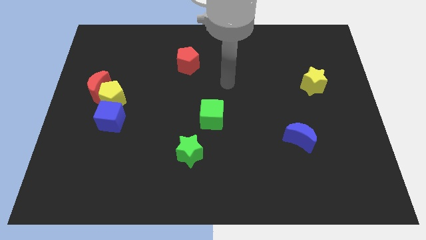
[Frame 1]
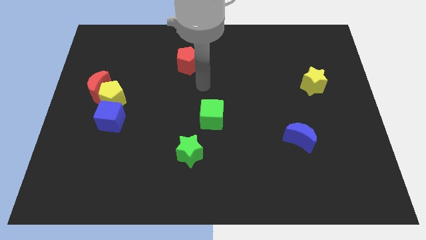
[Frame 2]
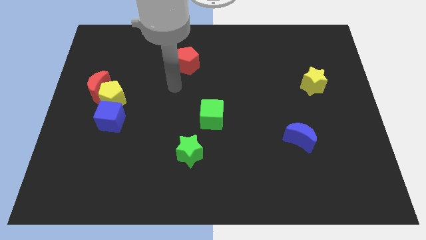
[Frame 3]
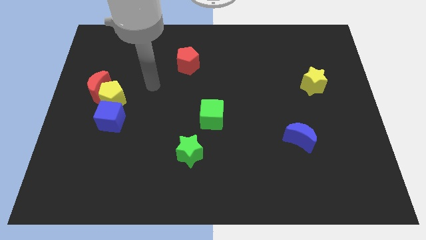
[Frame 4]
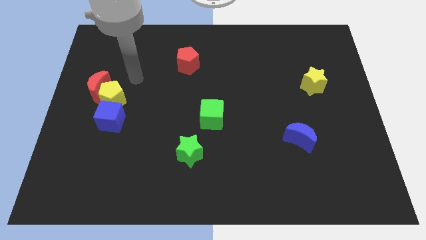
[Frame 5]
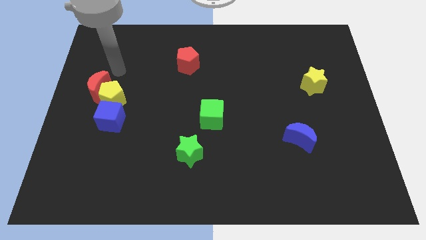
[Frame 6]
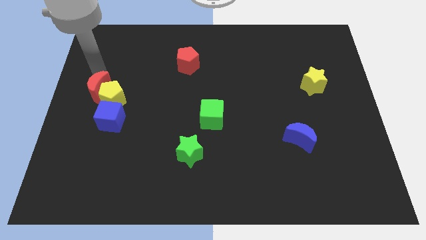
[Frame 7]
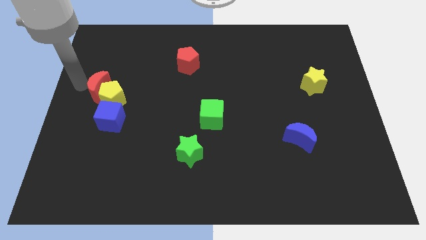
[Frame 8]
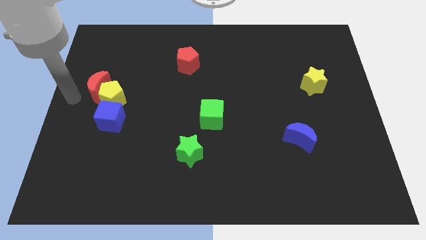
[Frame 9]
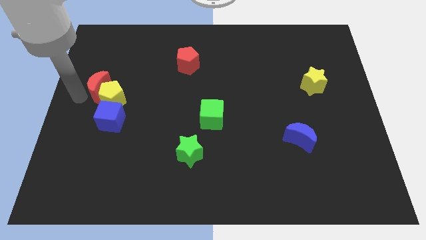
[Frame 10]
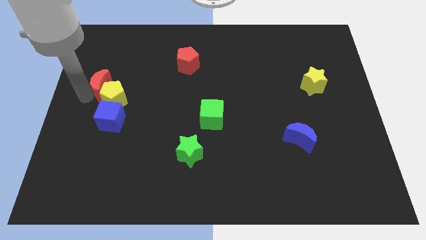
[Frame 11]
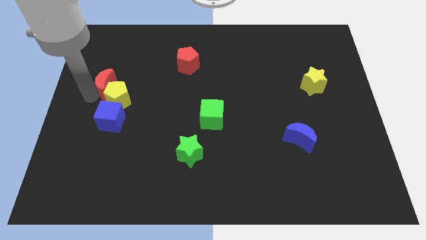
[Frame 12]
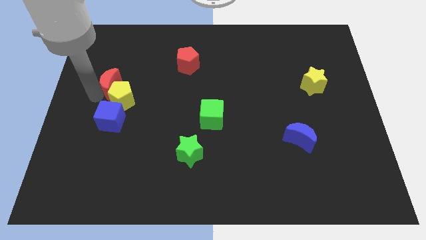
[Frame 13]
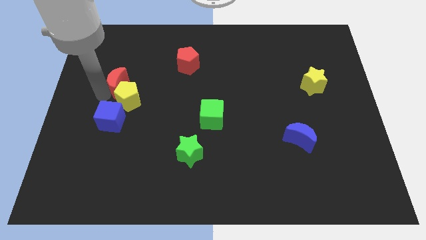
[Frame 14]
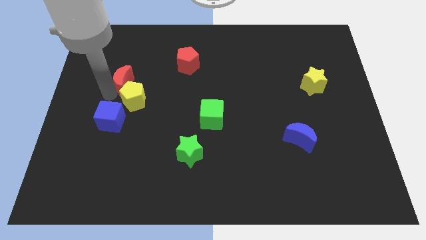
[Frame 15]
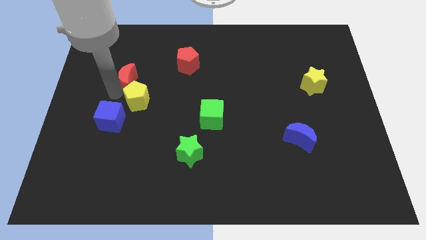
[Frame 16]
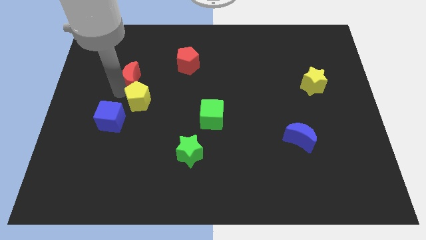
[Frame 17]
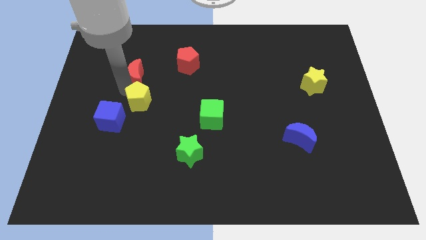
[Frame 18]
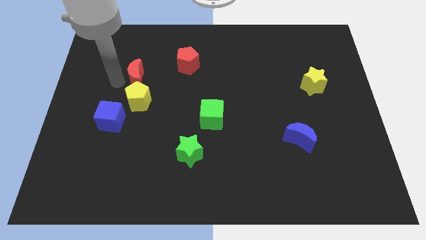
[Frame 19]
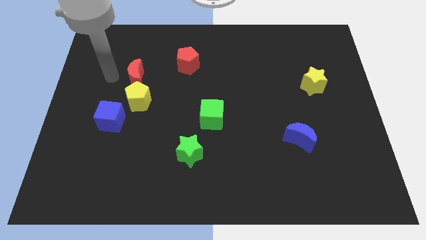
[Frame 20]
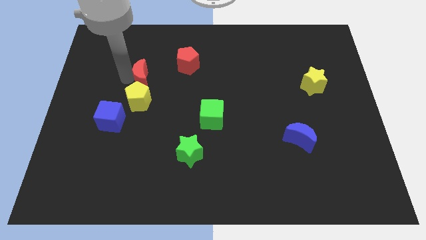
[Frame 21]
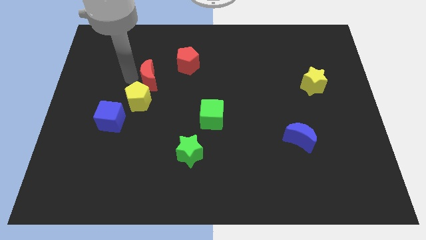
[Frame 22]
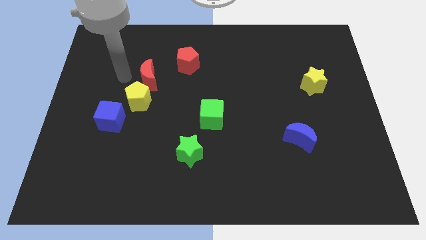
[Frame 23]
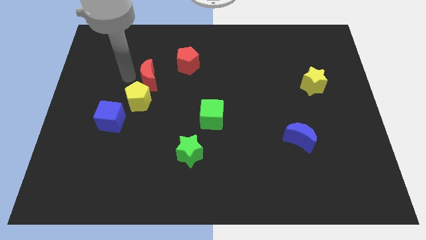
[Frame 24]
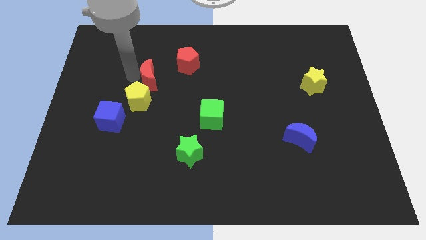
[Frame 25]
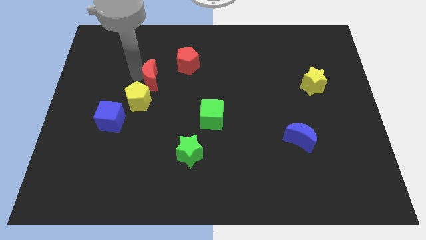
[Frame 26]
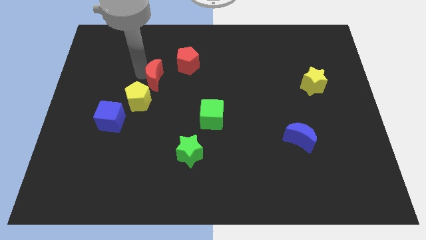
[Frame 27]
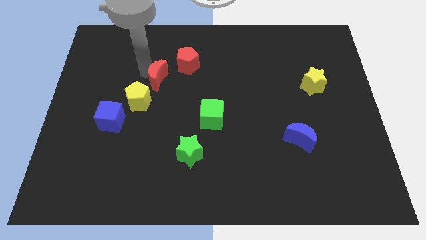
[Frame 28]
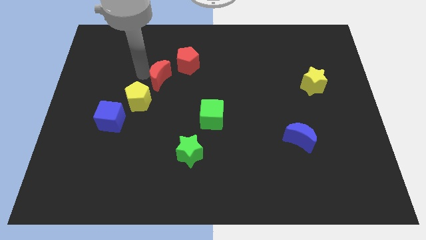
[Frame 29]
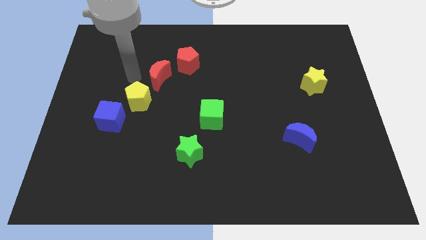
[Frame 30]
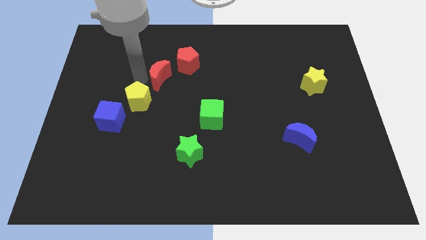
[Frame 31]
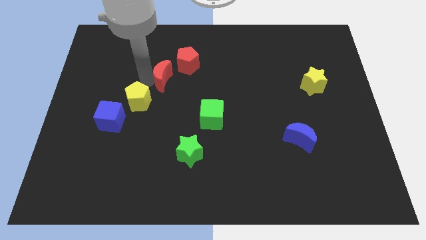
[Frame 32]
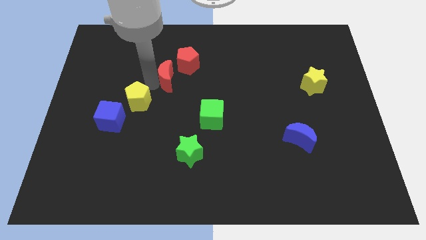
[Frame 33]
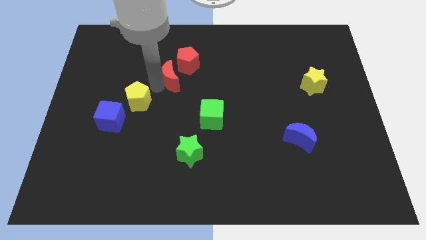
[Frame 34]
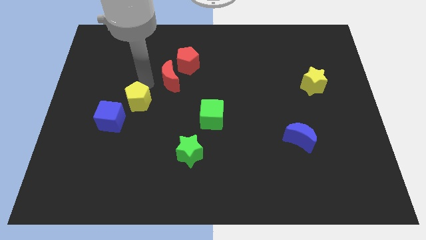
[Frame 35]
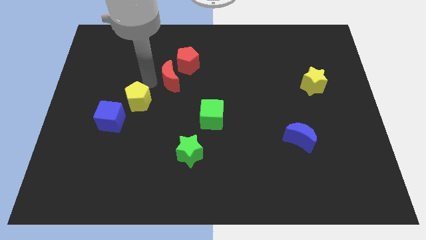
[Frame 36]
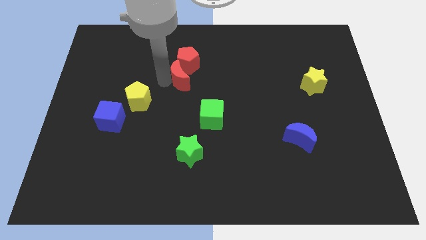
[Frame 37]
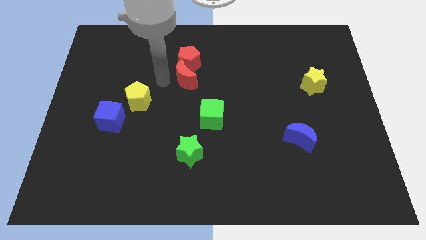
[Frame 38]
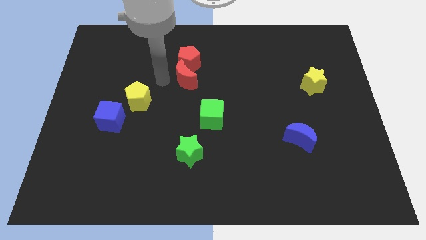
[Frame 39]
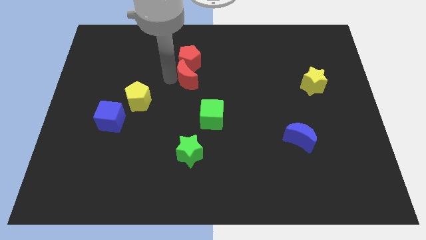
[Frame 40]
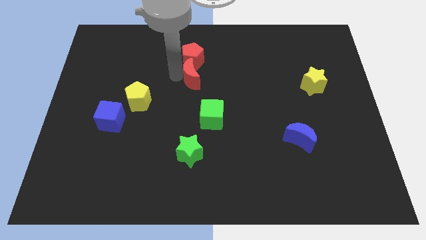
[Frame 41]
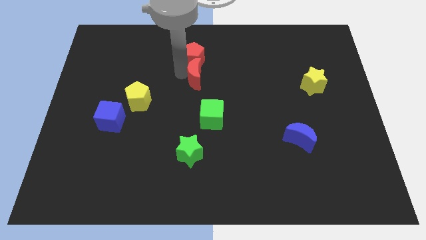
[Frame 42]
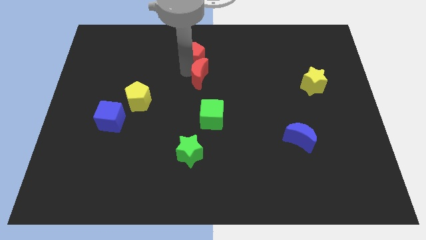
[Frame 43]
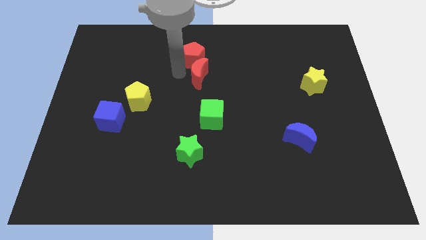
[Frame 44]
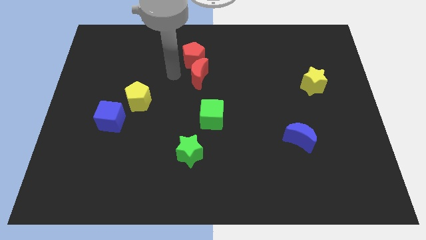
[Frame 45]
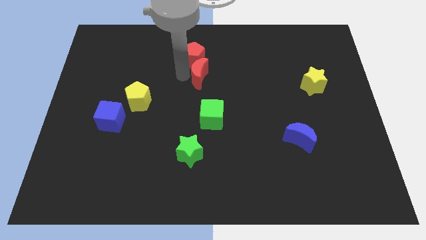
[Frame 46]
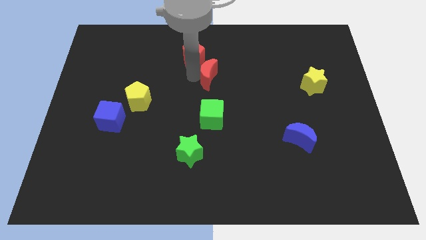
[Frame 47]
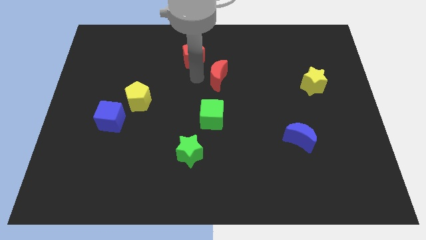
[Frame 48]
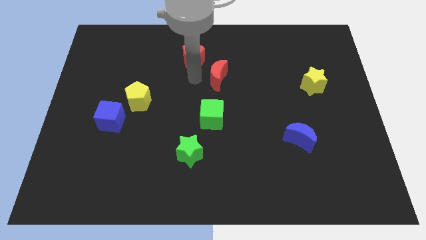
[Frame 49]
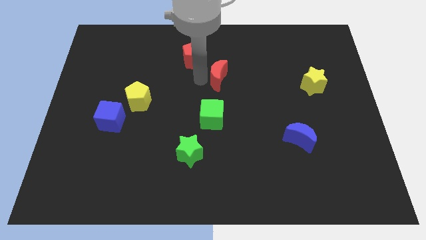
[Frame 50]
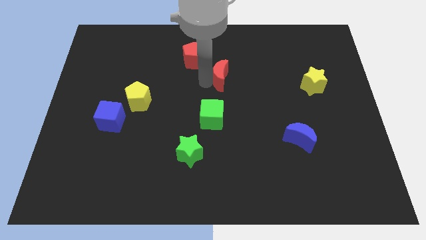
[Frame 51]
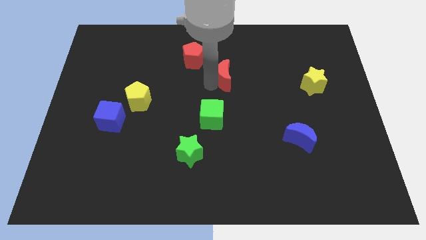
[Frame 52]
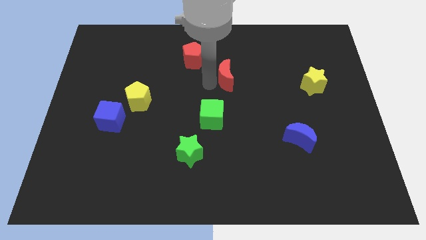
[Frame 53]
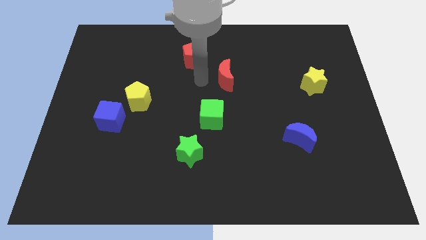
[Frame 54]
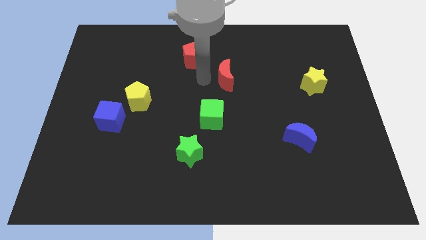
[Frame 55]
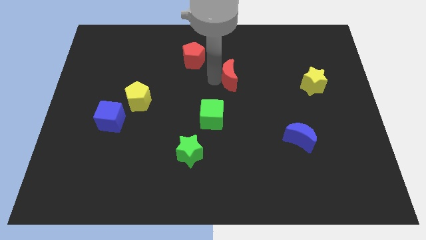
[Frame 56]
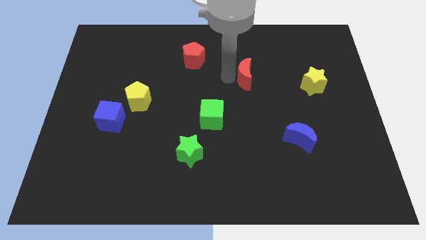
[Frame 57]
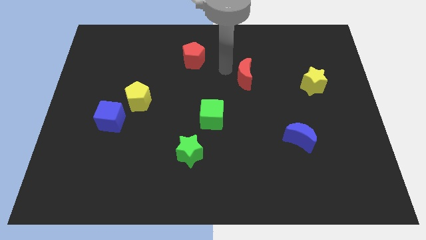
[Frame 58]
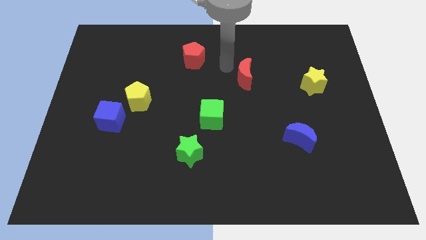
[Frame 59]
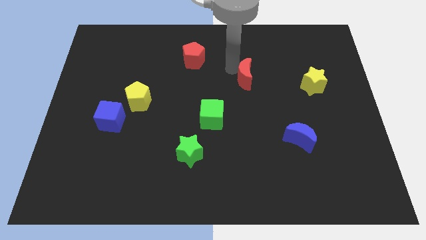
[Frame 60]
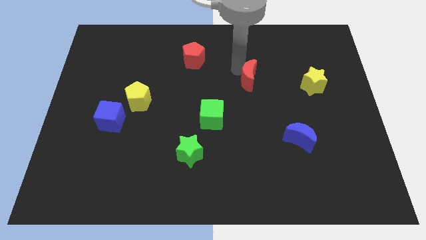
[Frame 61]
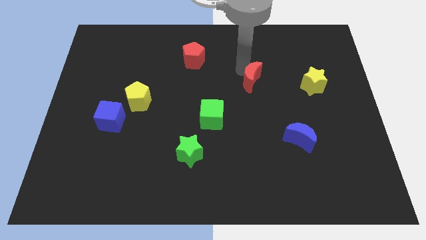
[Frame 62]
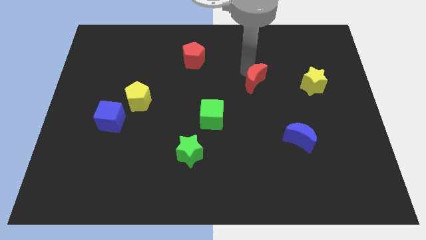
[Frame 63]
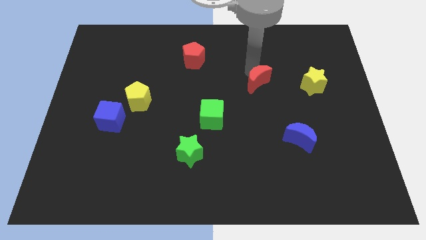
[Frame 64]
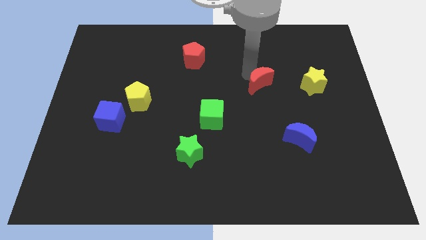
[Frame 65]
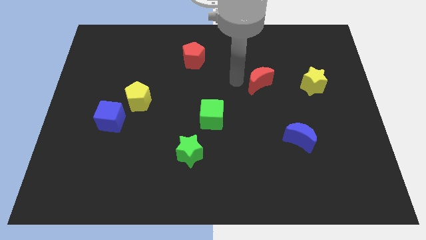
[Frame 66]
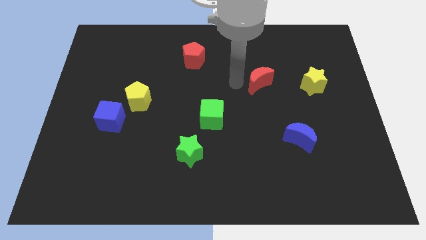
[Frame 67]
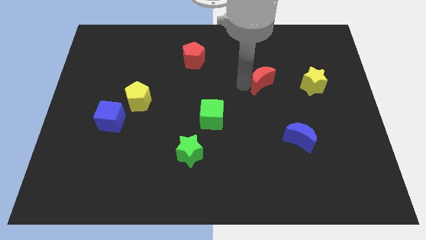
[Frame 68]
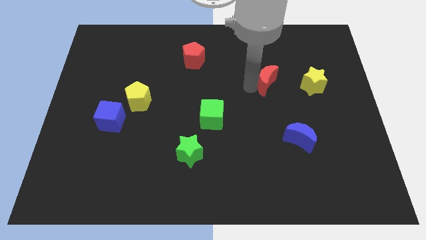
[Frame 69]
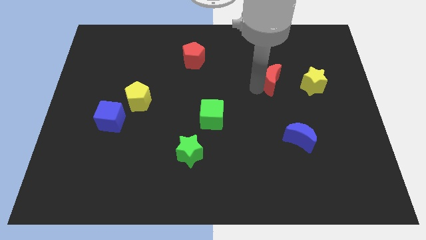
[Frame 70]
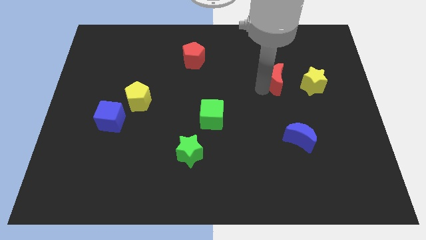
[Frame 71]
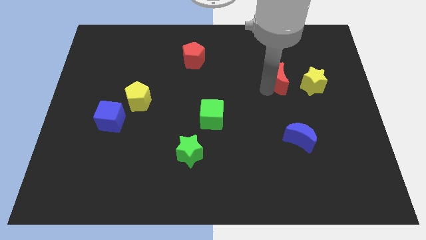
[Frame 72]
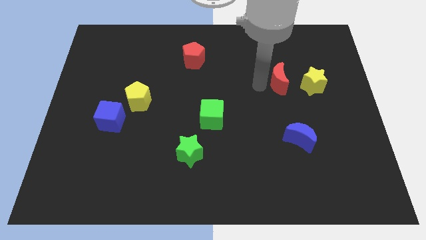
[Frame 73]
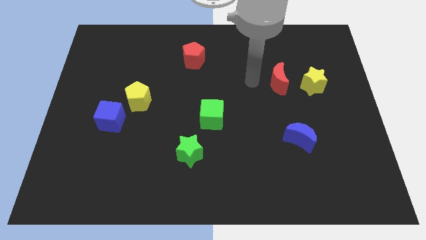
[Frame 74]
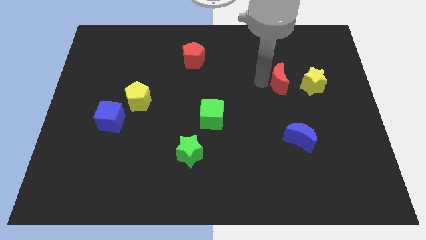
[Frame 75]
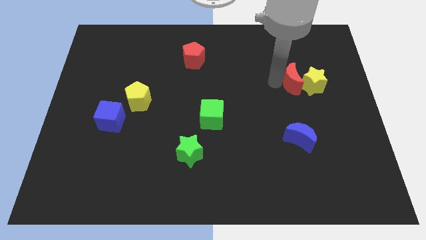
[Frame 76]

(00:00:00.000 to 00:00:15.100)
move the red moon towards the yellow star
